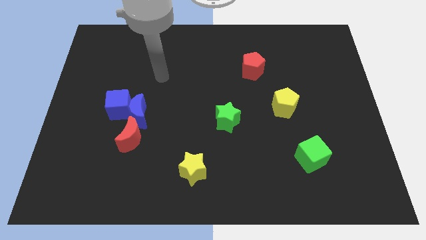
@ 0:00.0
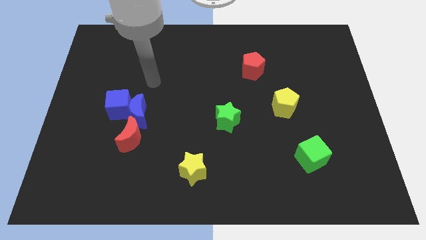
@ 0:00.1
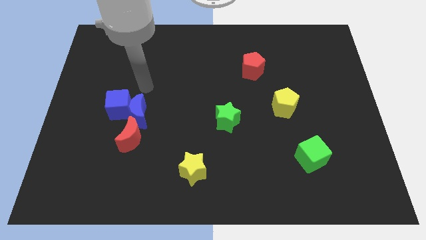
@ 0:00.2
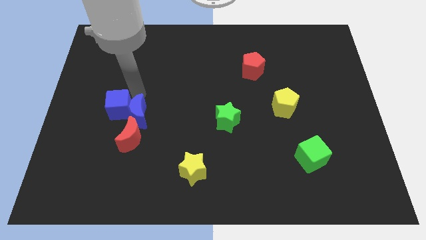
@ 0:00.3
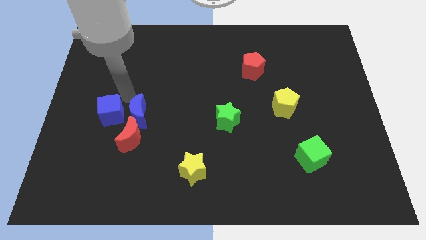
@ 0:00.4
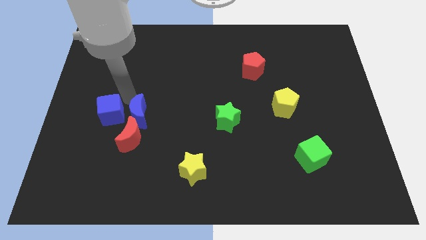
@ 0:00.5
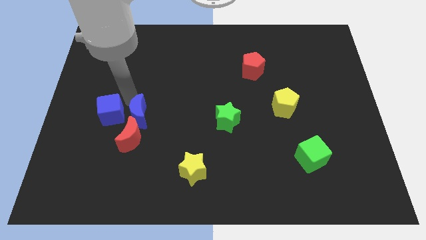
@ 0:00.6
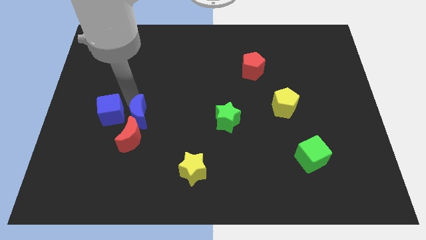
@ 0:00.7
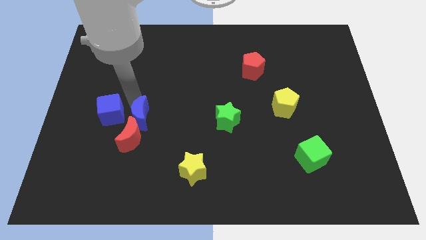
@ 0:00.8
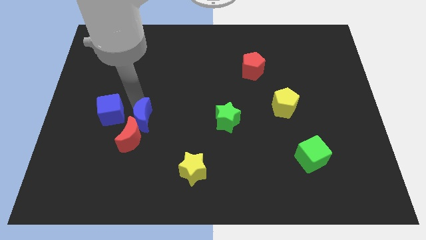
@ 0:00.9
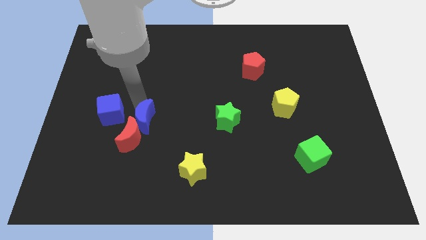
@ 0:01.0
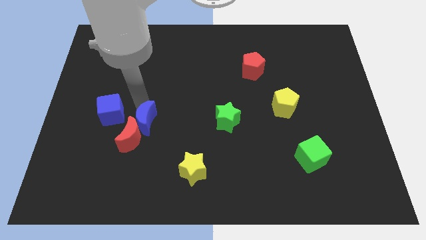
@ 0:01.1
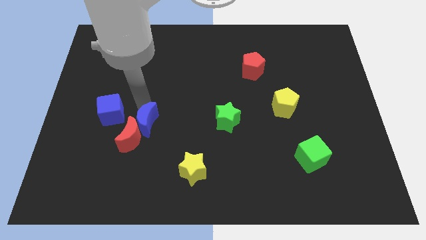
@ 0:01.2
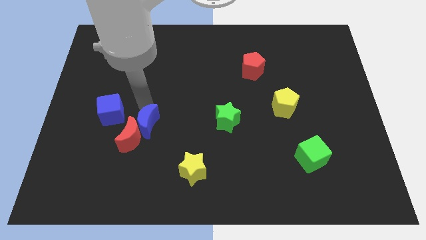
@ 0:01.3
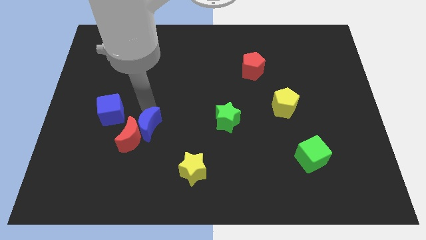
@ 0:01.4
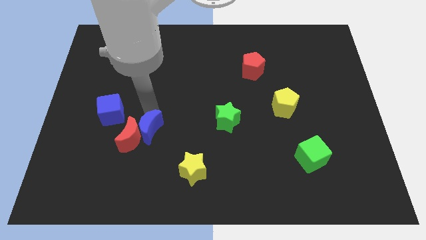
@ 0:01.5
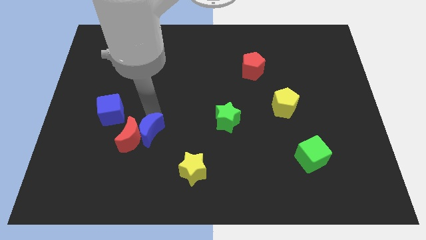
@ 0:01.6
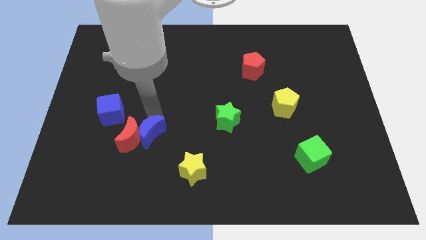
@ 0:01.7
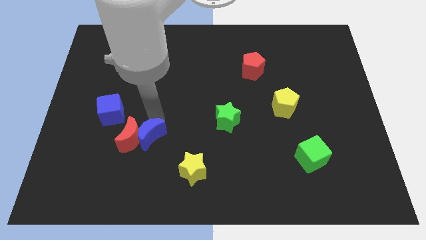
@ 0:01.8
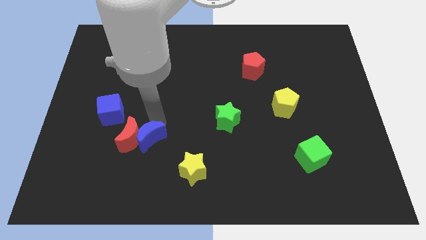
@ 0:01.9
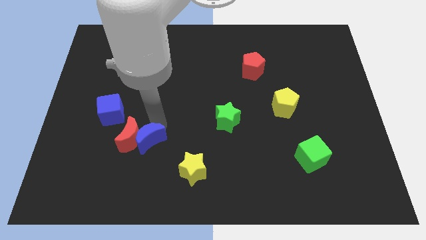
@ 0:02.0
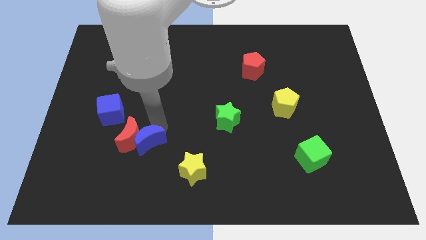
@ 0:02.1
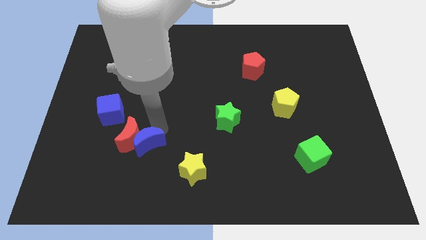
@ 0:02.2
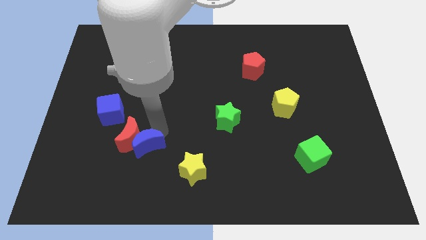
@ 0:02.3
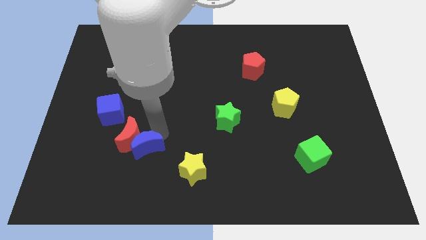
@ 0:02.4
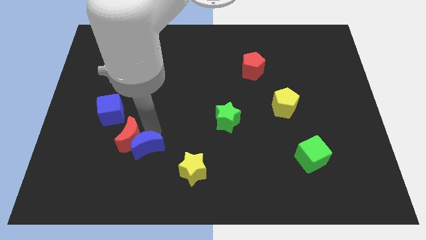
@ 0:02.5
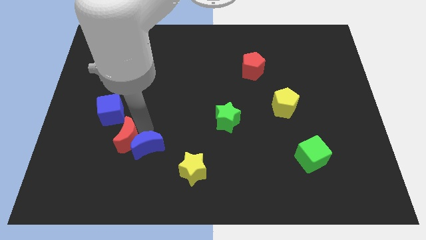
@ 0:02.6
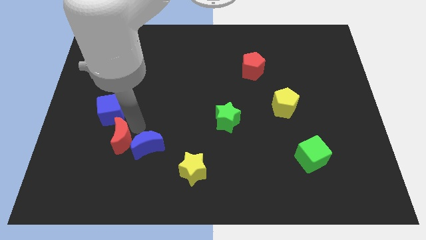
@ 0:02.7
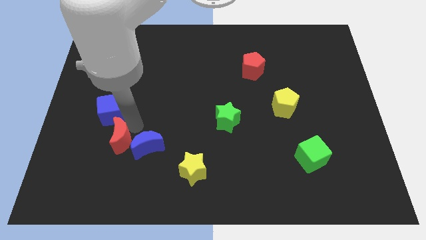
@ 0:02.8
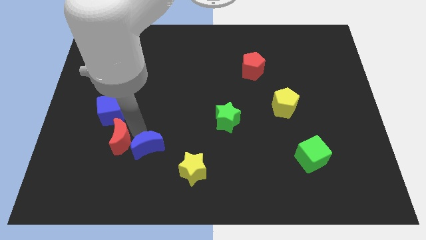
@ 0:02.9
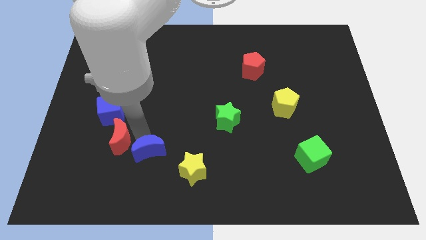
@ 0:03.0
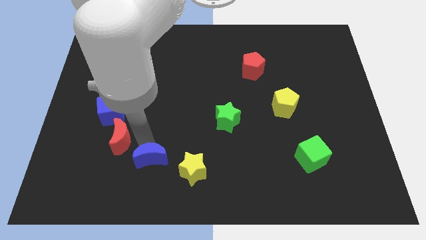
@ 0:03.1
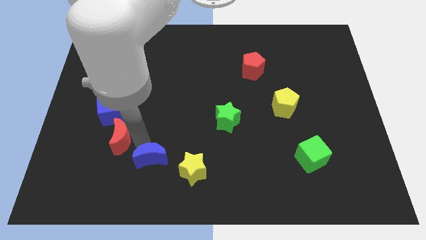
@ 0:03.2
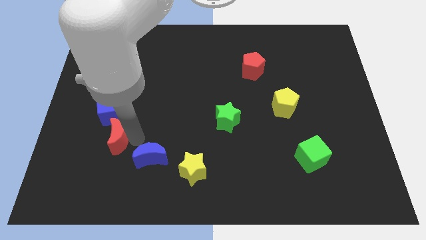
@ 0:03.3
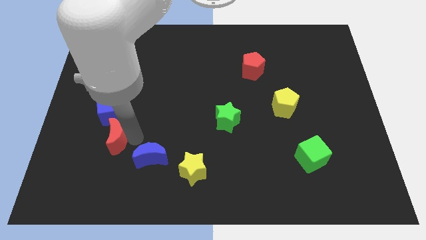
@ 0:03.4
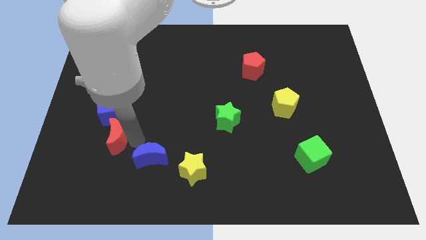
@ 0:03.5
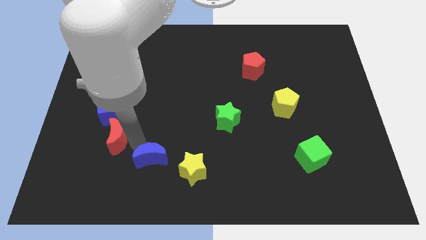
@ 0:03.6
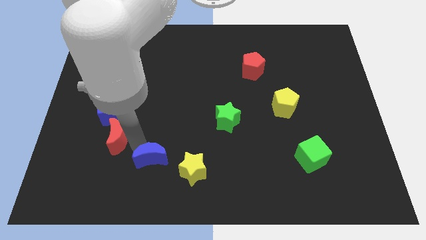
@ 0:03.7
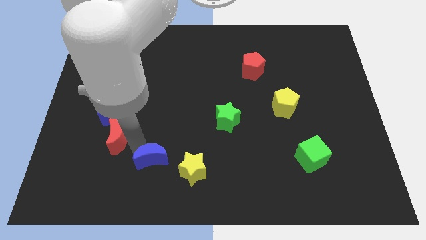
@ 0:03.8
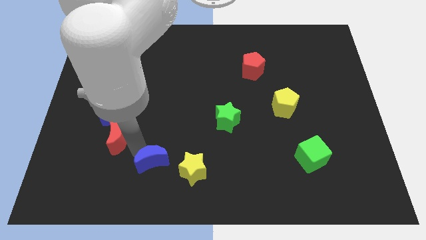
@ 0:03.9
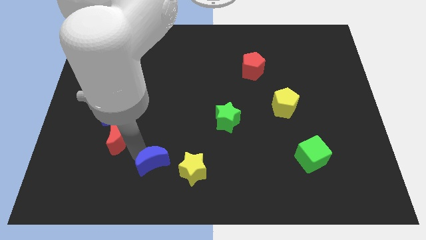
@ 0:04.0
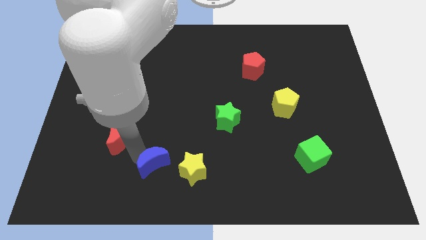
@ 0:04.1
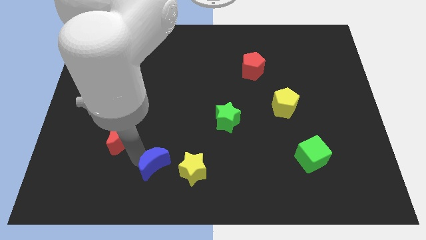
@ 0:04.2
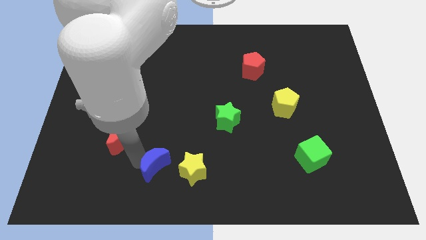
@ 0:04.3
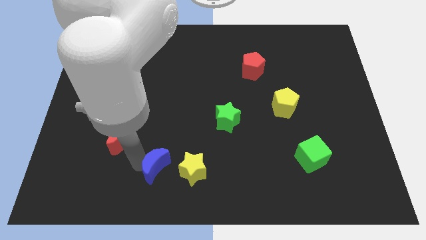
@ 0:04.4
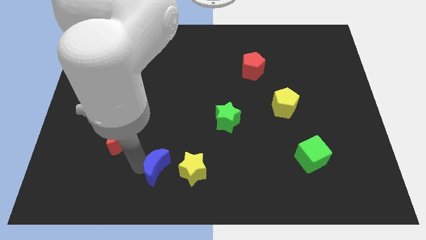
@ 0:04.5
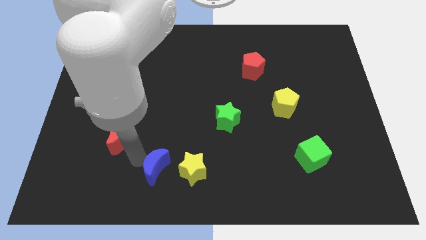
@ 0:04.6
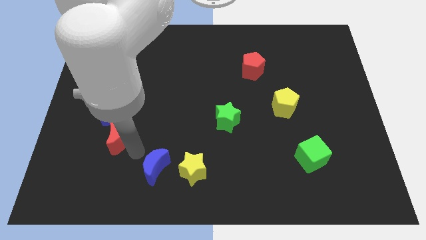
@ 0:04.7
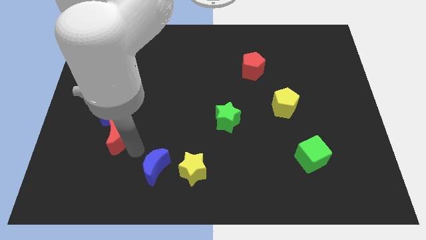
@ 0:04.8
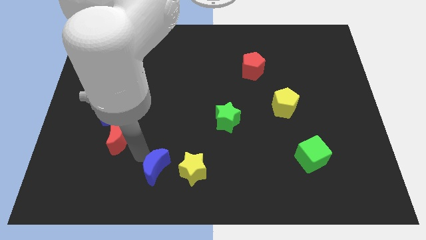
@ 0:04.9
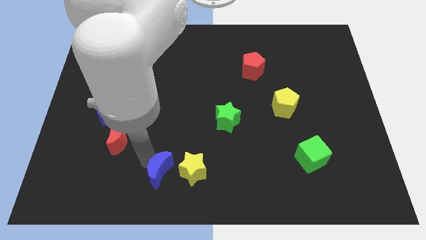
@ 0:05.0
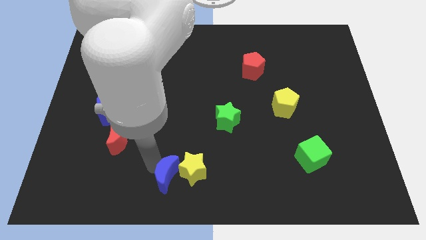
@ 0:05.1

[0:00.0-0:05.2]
push the blue moon to the bottom side

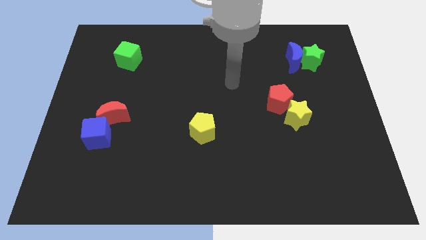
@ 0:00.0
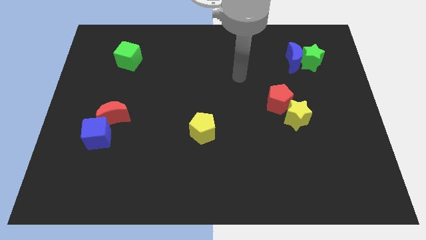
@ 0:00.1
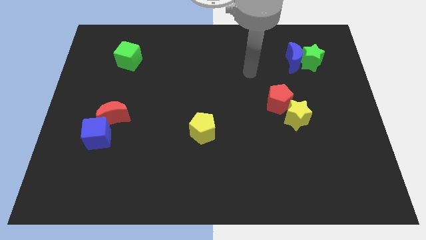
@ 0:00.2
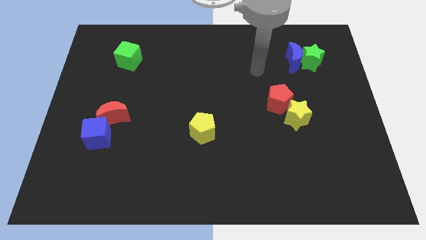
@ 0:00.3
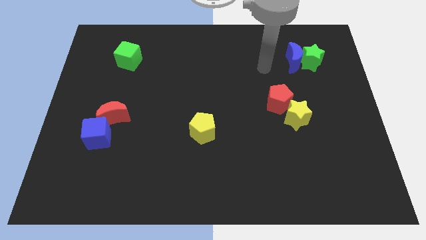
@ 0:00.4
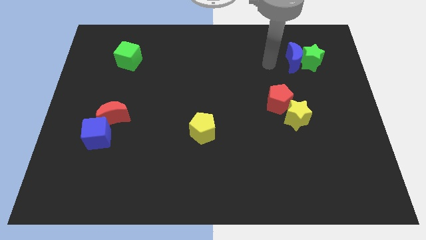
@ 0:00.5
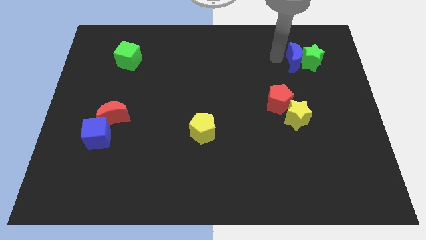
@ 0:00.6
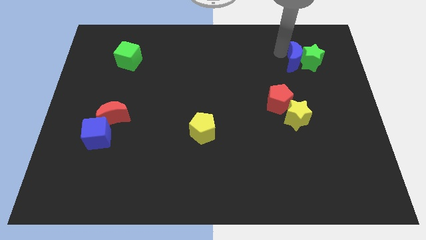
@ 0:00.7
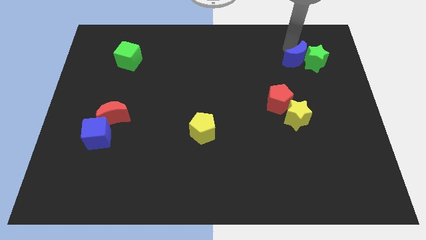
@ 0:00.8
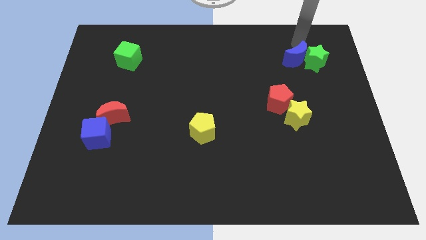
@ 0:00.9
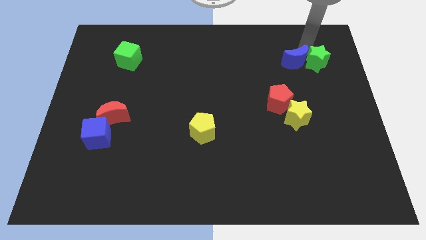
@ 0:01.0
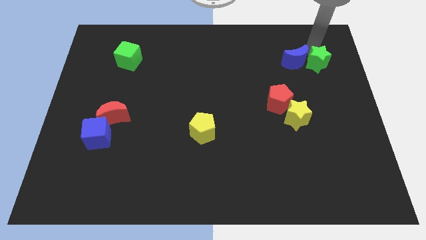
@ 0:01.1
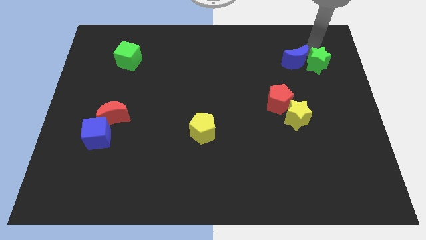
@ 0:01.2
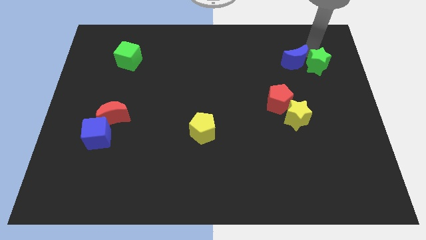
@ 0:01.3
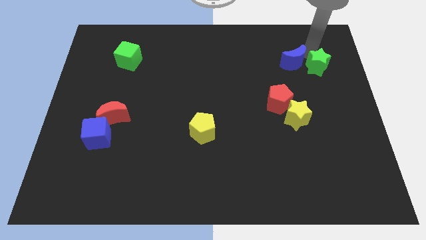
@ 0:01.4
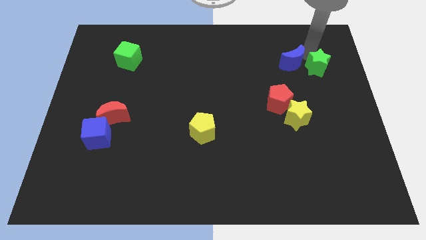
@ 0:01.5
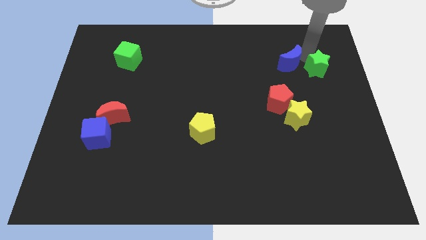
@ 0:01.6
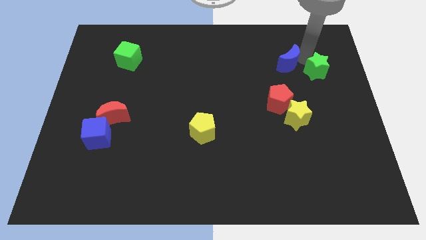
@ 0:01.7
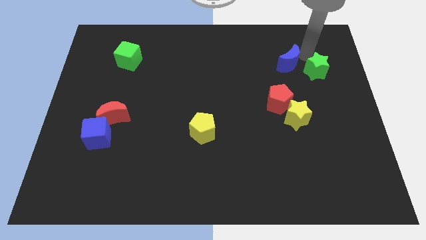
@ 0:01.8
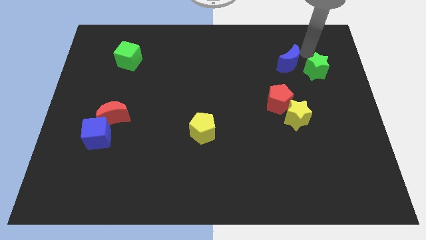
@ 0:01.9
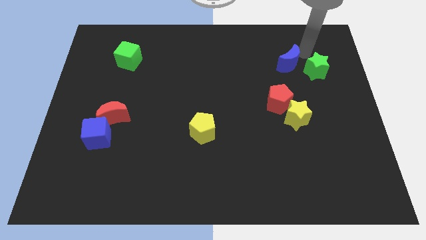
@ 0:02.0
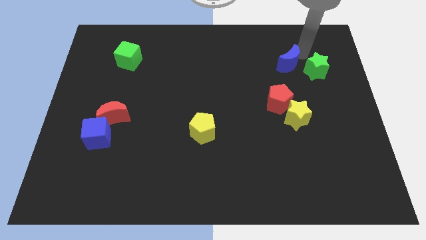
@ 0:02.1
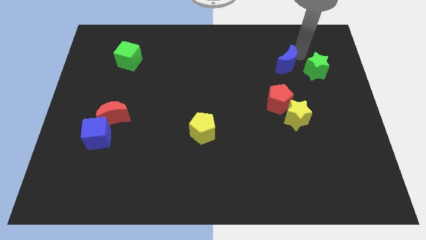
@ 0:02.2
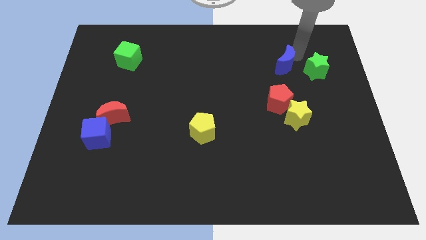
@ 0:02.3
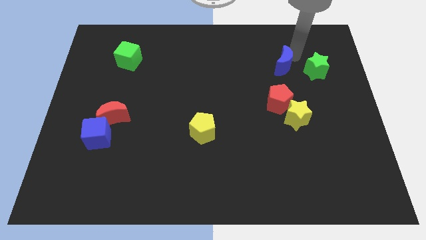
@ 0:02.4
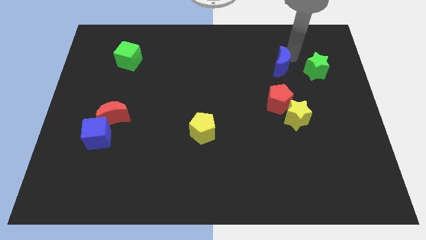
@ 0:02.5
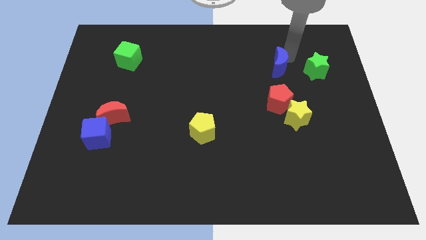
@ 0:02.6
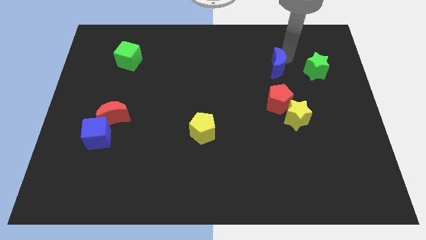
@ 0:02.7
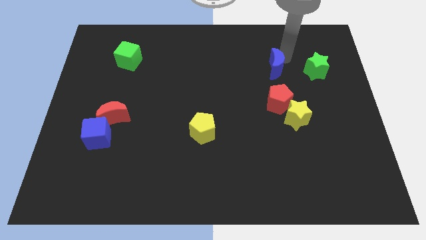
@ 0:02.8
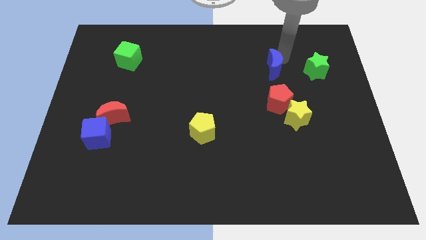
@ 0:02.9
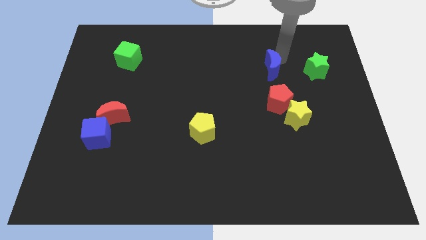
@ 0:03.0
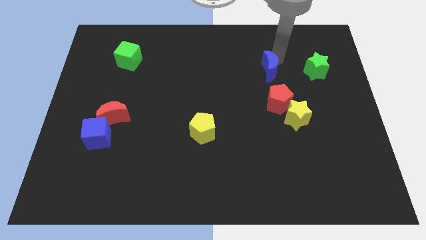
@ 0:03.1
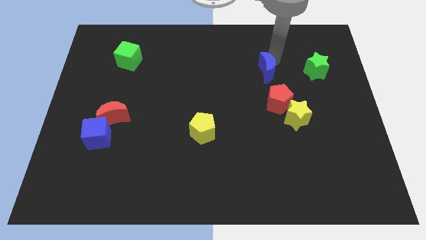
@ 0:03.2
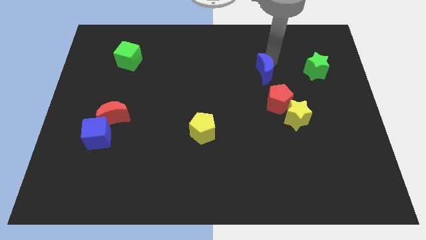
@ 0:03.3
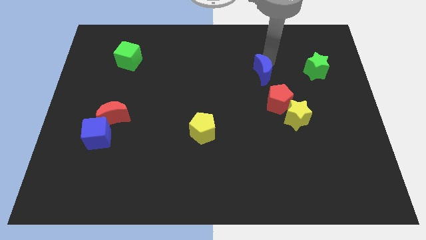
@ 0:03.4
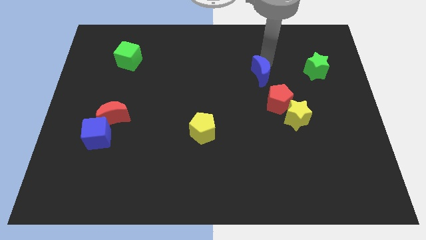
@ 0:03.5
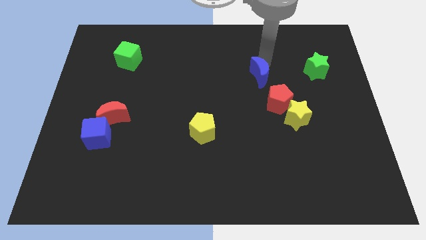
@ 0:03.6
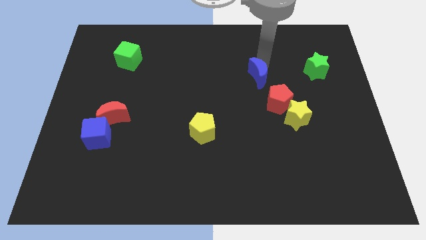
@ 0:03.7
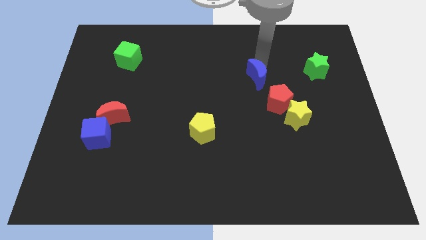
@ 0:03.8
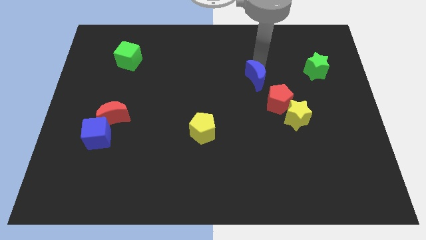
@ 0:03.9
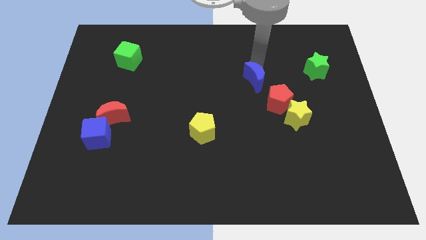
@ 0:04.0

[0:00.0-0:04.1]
push the blue moon to the center
